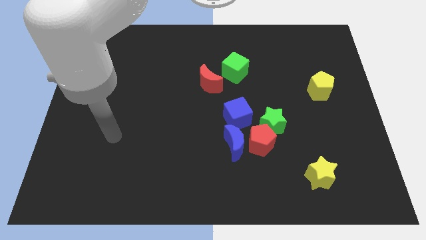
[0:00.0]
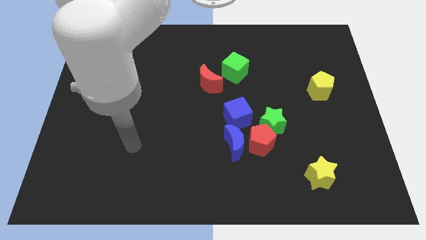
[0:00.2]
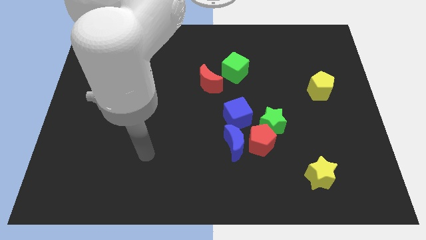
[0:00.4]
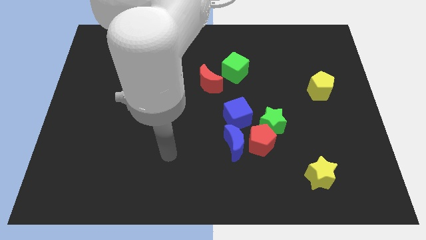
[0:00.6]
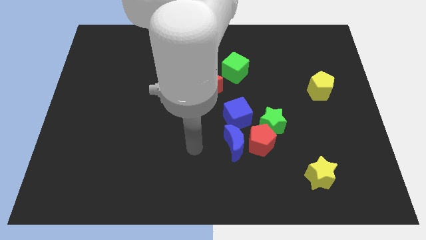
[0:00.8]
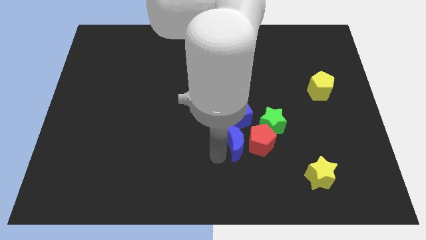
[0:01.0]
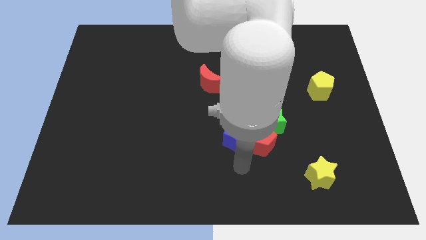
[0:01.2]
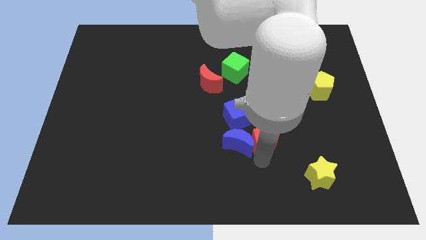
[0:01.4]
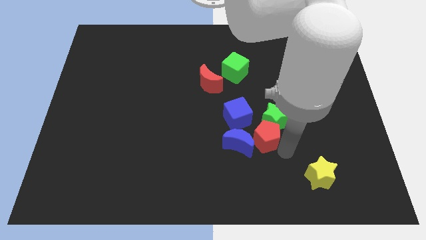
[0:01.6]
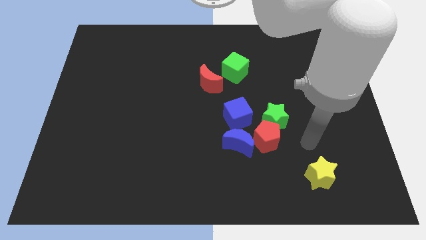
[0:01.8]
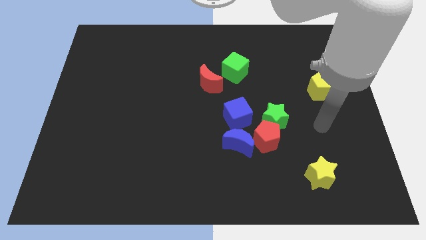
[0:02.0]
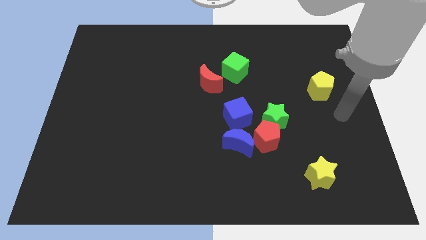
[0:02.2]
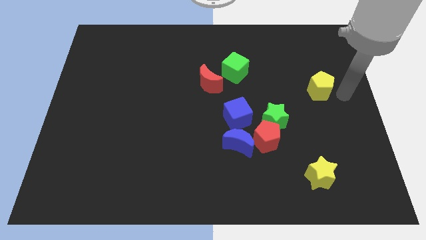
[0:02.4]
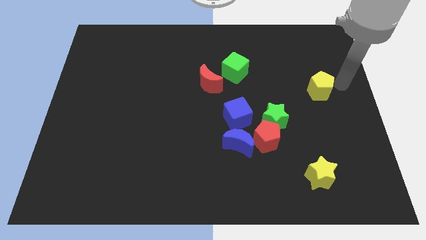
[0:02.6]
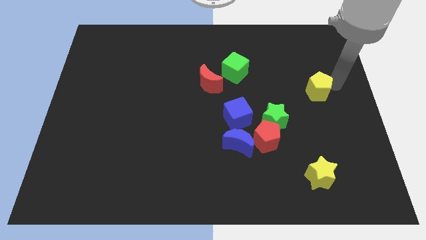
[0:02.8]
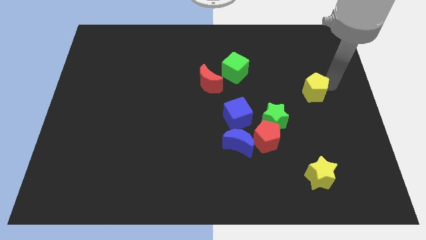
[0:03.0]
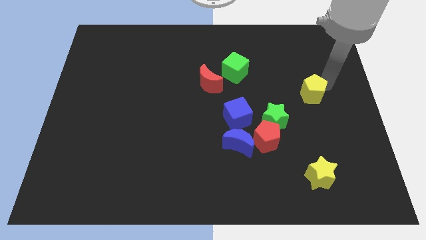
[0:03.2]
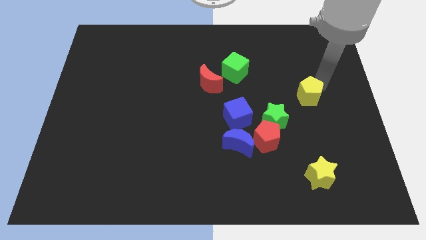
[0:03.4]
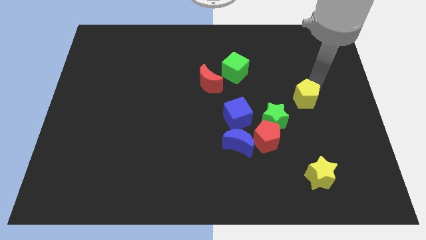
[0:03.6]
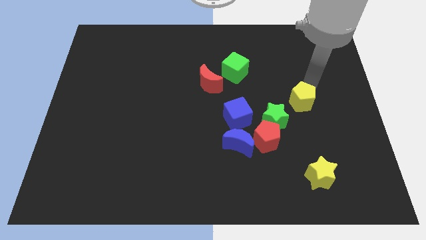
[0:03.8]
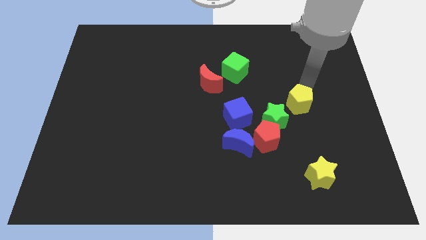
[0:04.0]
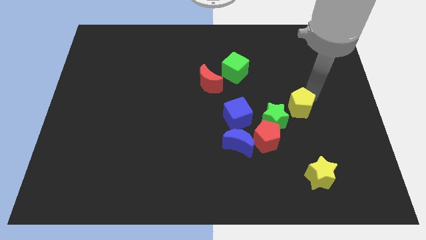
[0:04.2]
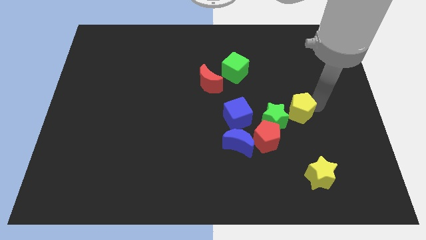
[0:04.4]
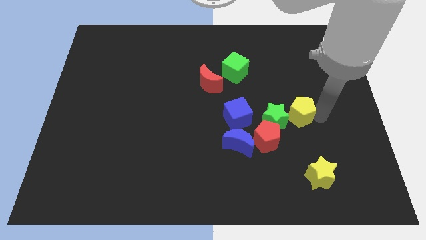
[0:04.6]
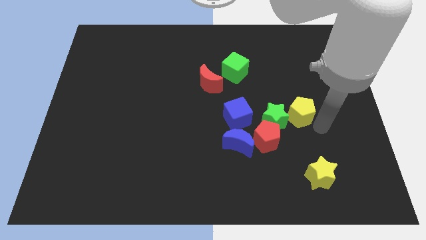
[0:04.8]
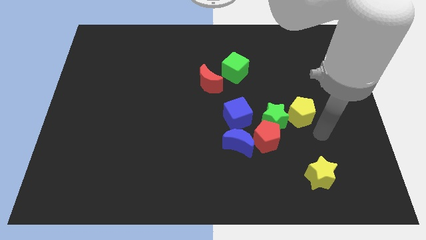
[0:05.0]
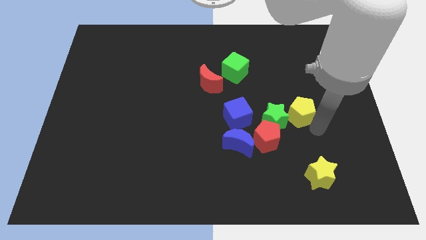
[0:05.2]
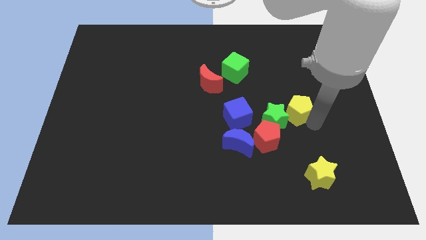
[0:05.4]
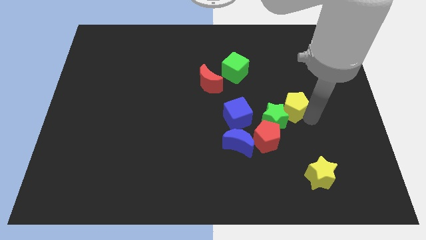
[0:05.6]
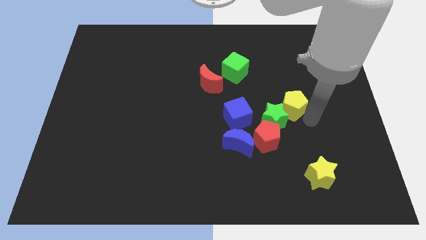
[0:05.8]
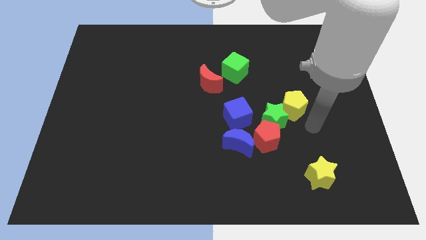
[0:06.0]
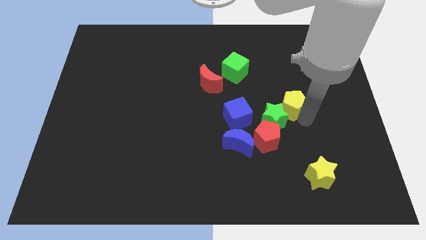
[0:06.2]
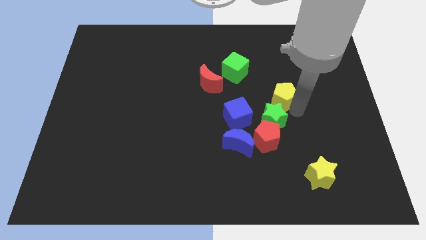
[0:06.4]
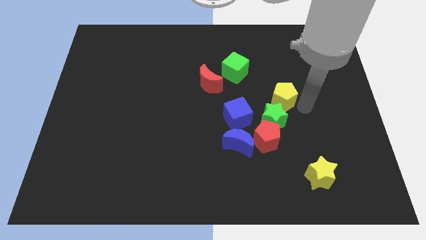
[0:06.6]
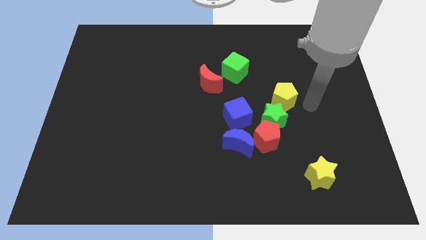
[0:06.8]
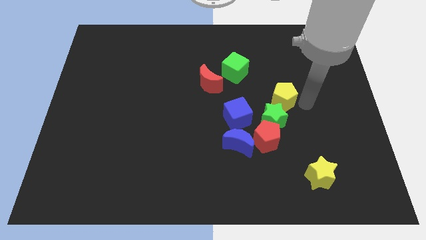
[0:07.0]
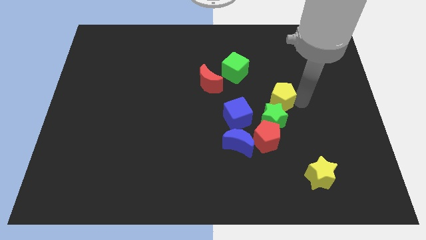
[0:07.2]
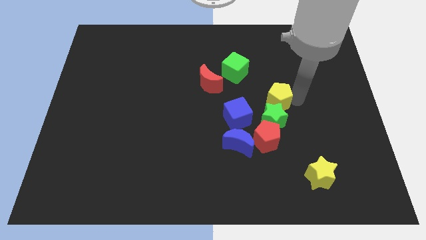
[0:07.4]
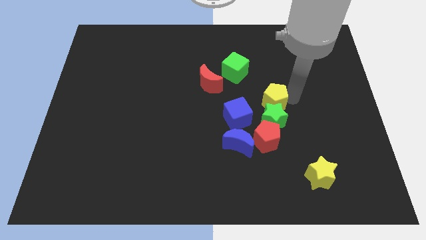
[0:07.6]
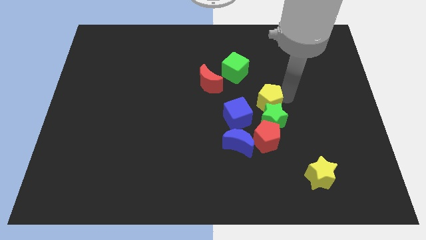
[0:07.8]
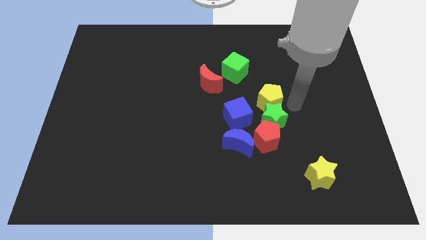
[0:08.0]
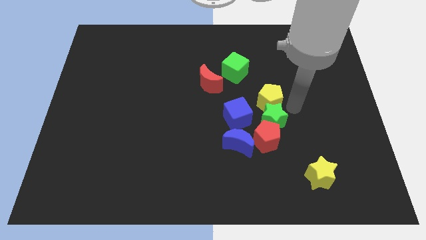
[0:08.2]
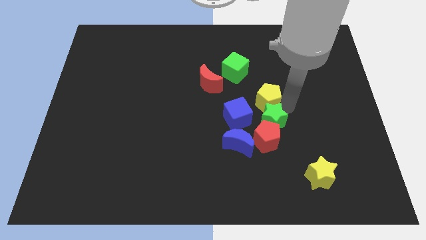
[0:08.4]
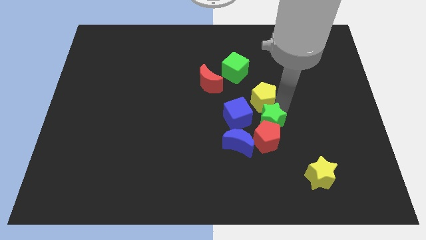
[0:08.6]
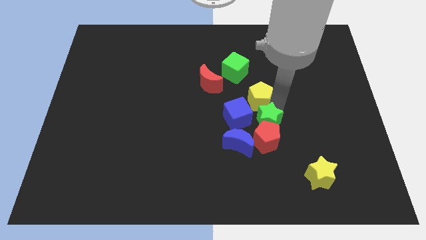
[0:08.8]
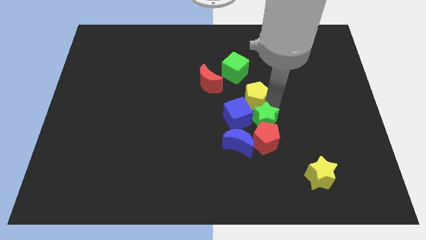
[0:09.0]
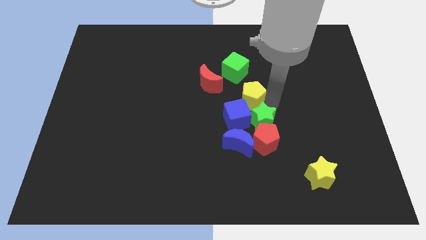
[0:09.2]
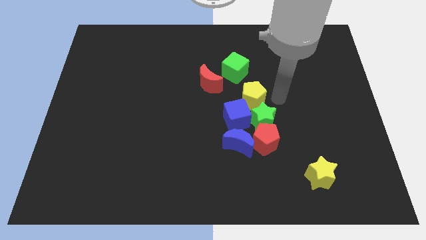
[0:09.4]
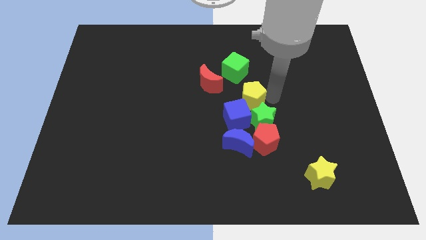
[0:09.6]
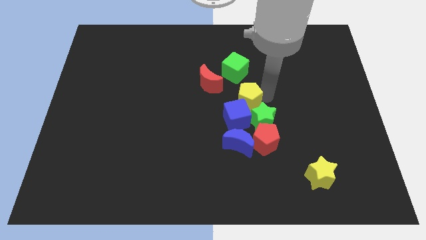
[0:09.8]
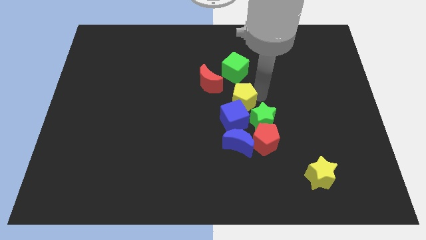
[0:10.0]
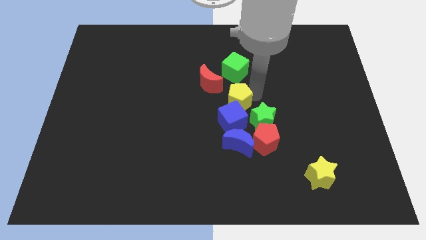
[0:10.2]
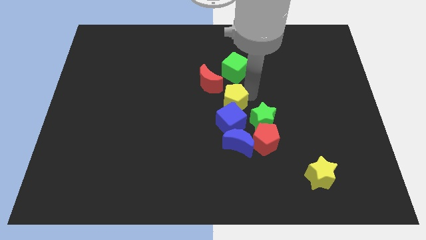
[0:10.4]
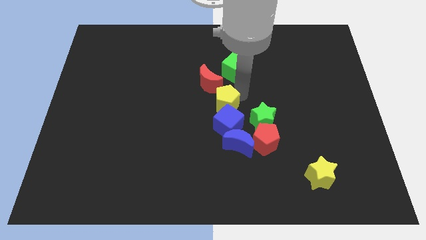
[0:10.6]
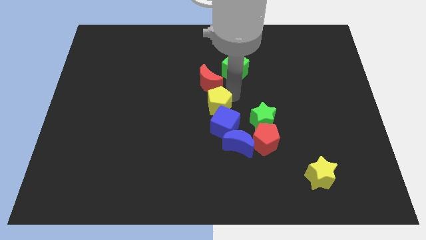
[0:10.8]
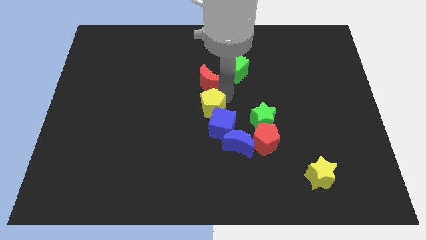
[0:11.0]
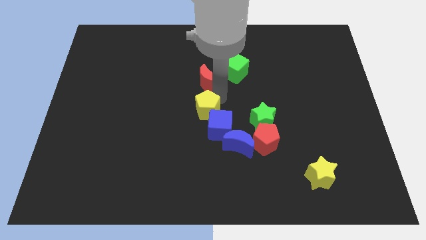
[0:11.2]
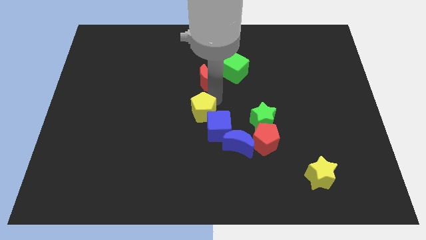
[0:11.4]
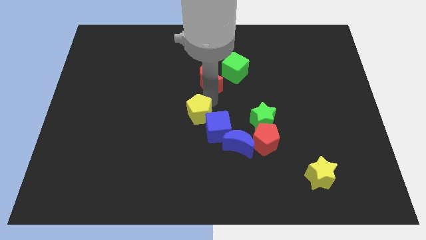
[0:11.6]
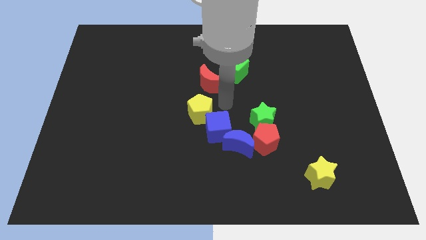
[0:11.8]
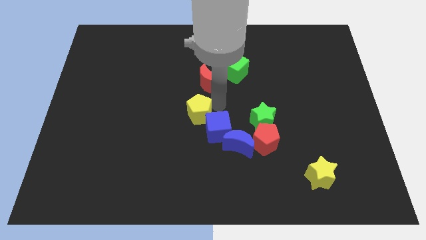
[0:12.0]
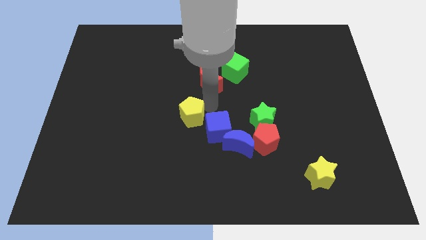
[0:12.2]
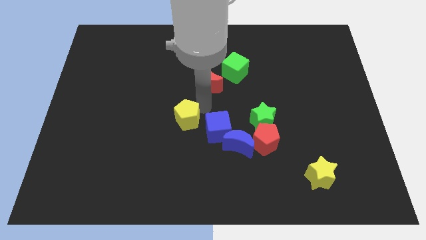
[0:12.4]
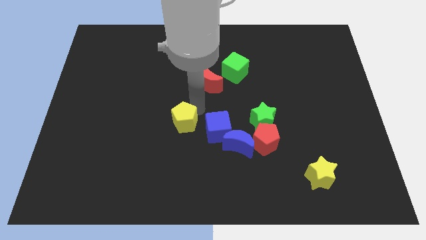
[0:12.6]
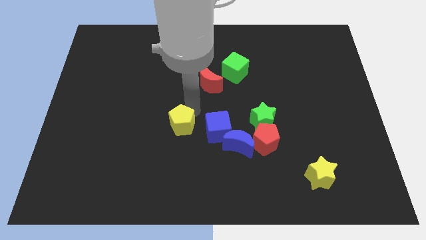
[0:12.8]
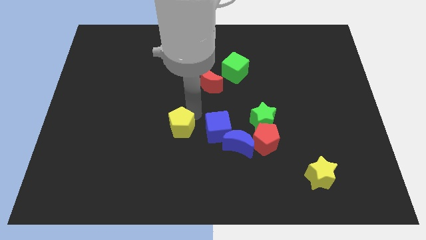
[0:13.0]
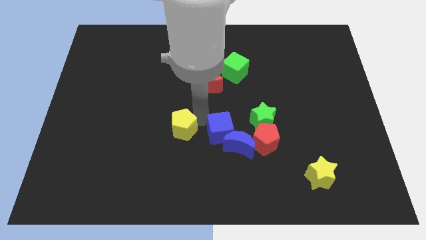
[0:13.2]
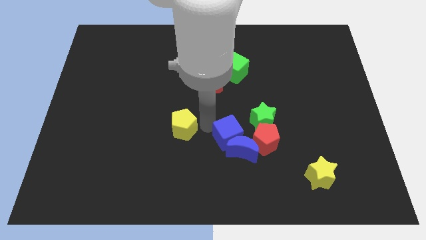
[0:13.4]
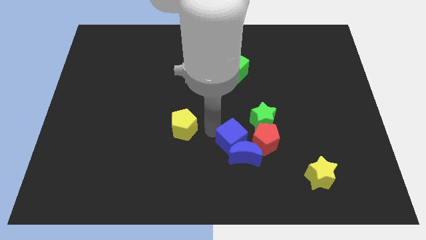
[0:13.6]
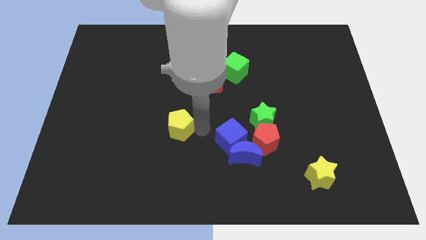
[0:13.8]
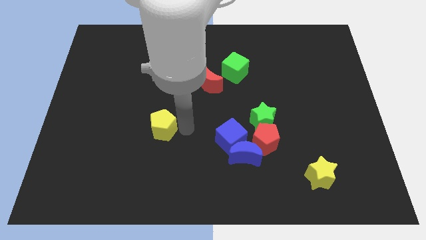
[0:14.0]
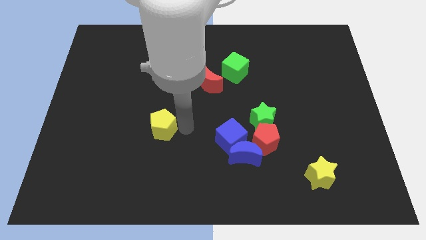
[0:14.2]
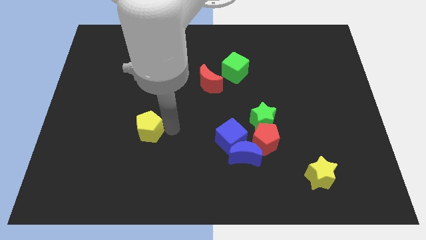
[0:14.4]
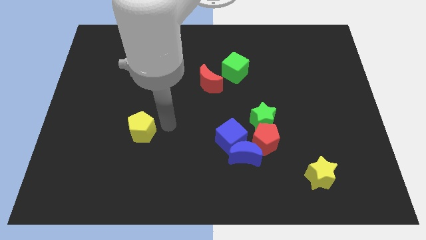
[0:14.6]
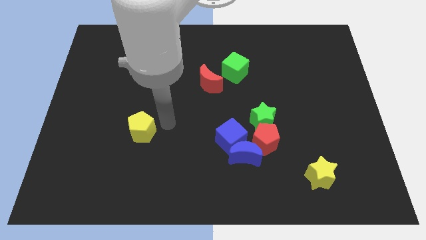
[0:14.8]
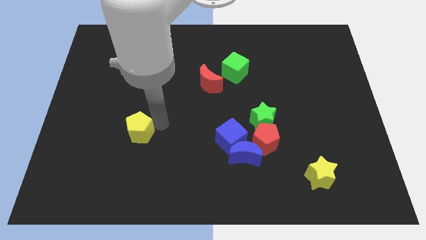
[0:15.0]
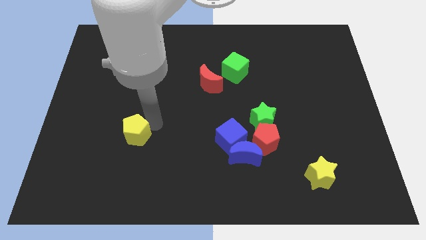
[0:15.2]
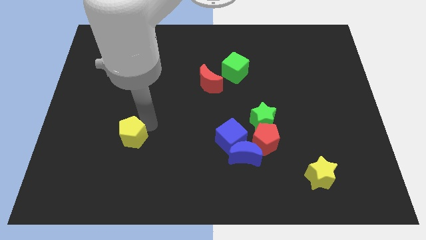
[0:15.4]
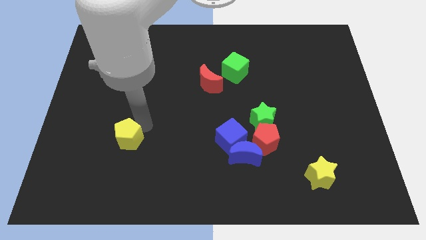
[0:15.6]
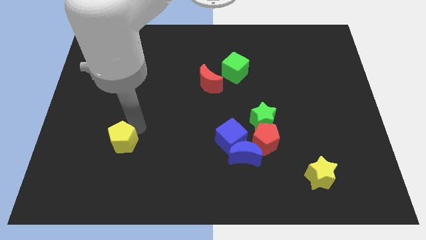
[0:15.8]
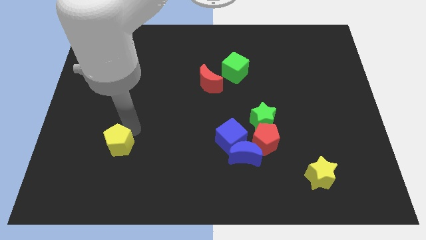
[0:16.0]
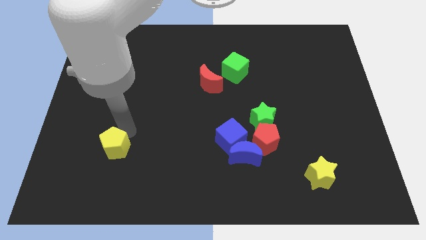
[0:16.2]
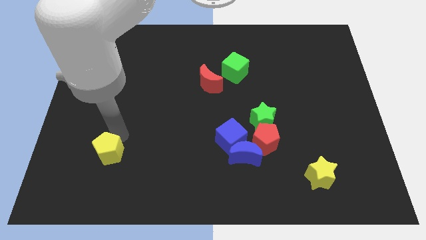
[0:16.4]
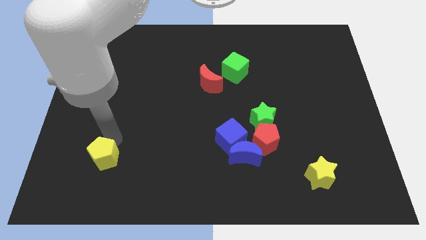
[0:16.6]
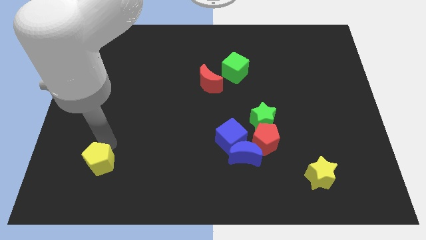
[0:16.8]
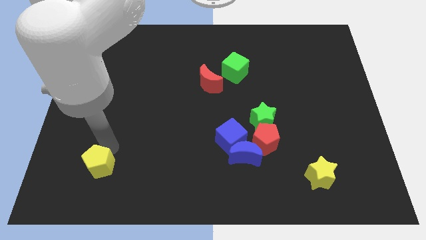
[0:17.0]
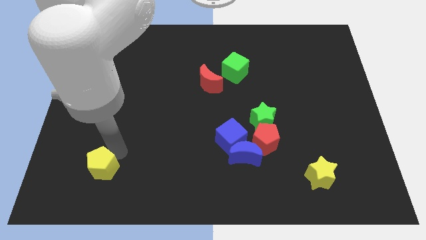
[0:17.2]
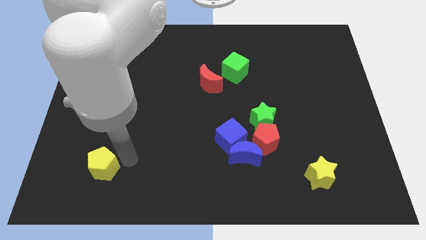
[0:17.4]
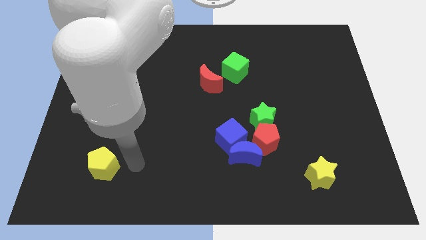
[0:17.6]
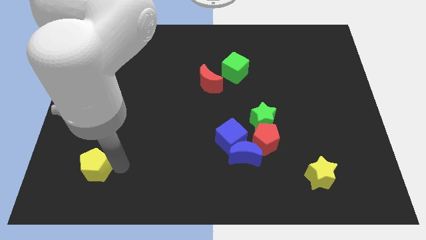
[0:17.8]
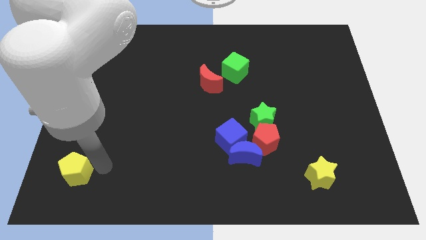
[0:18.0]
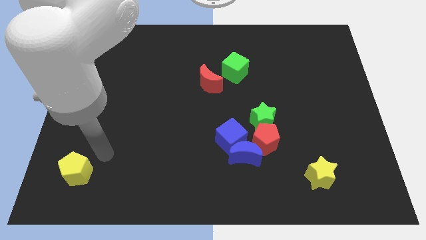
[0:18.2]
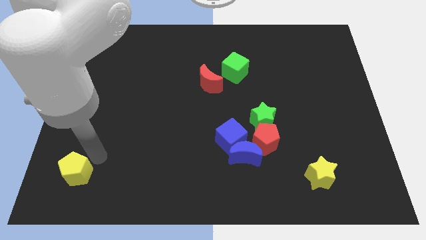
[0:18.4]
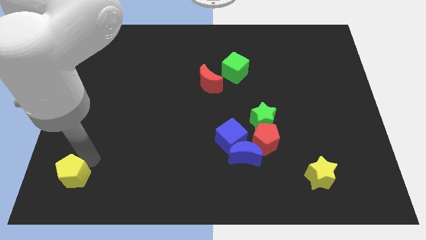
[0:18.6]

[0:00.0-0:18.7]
move the yellow pentagon to the bottom left corner
